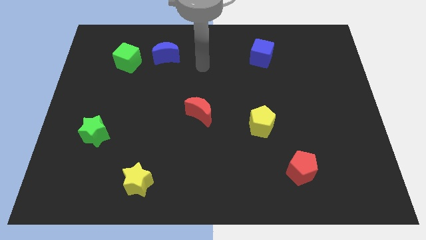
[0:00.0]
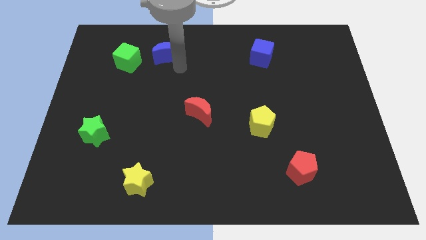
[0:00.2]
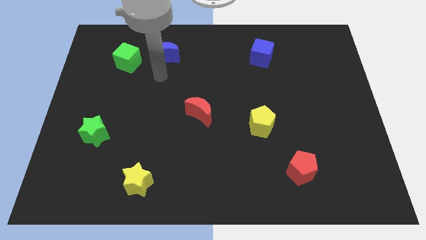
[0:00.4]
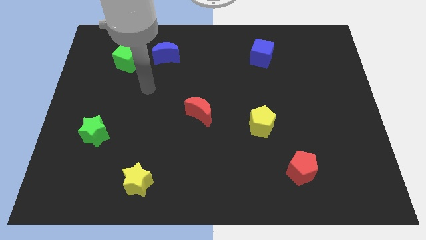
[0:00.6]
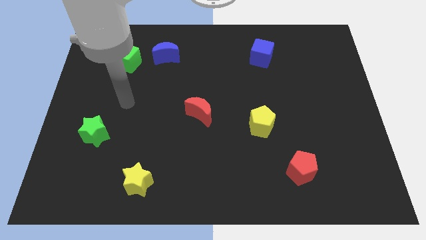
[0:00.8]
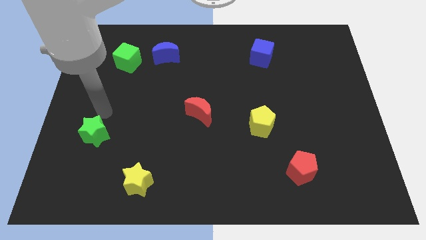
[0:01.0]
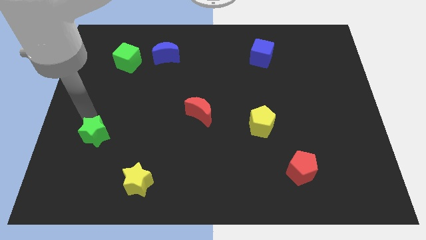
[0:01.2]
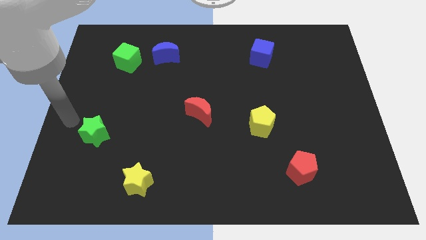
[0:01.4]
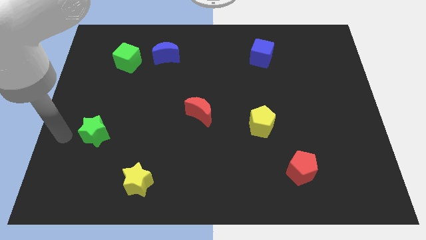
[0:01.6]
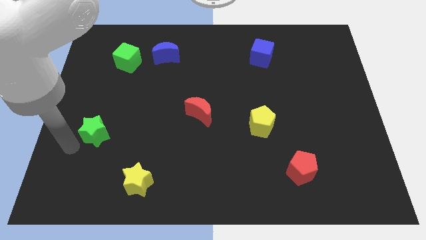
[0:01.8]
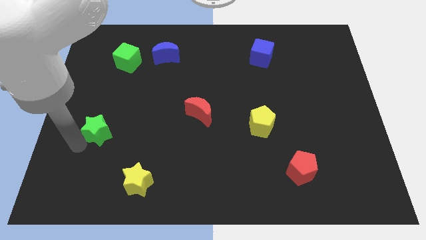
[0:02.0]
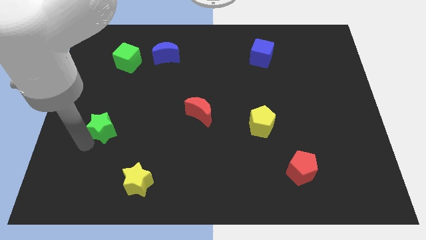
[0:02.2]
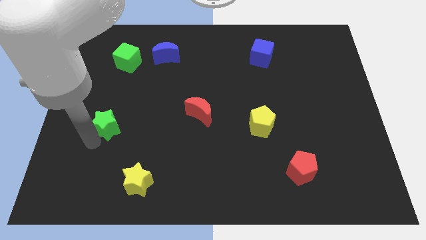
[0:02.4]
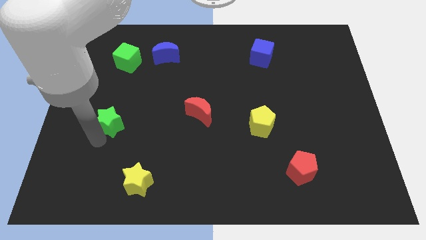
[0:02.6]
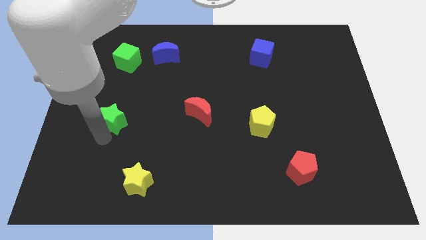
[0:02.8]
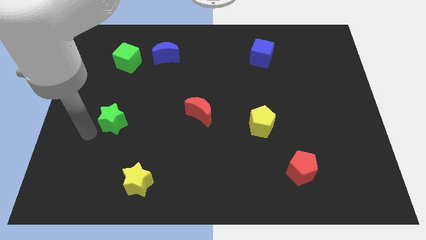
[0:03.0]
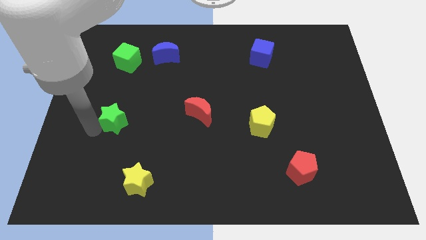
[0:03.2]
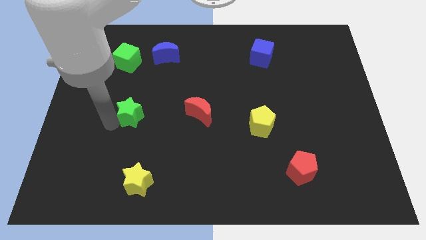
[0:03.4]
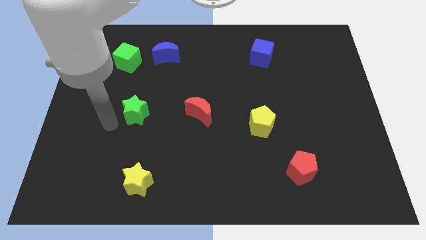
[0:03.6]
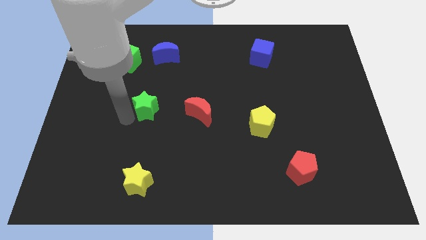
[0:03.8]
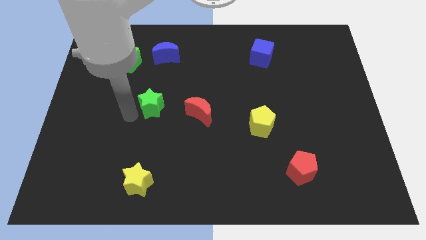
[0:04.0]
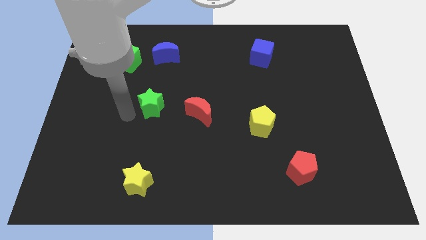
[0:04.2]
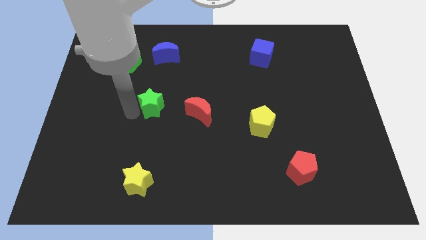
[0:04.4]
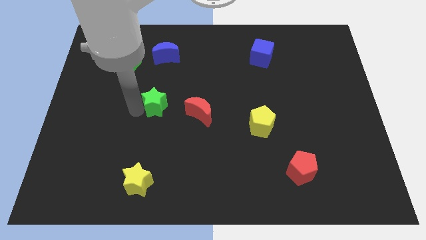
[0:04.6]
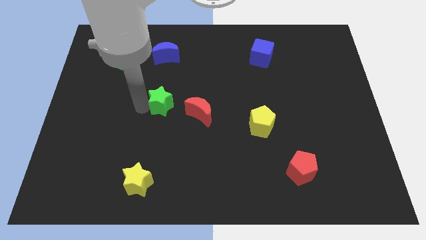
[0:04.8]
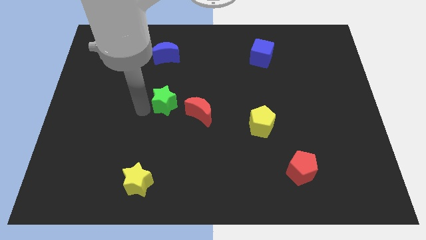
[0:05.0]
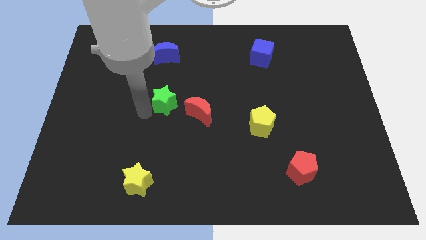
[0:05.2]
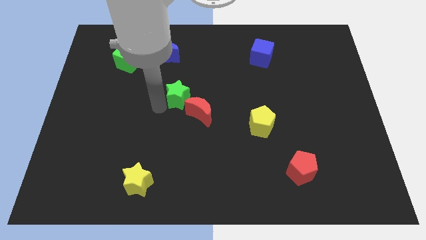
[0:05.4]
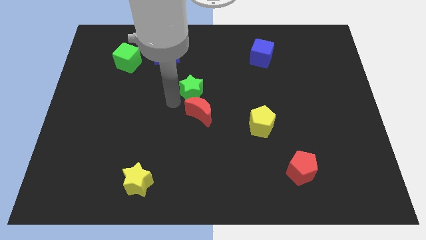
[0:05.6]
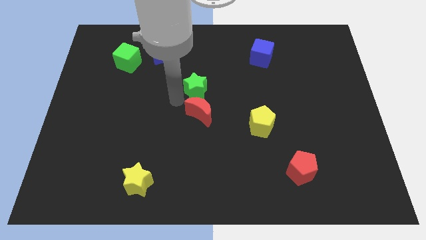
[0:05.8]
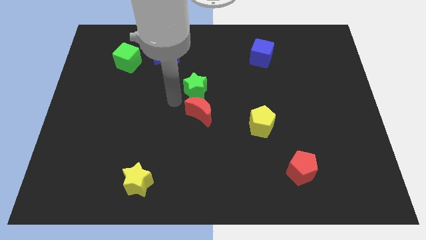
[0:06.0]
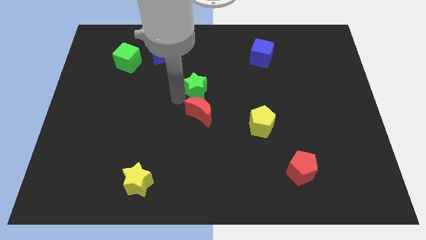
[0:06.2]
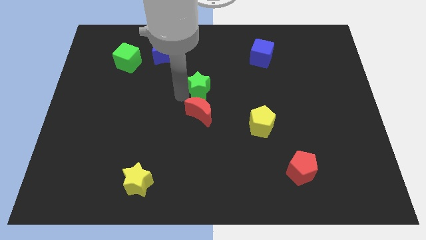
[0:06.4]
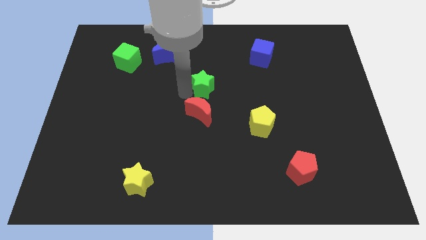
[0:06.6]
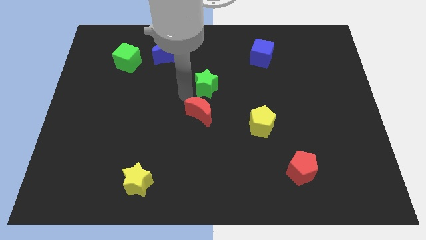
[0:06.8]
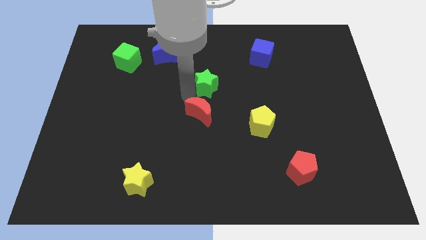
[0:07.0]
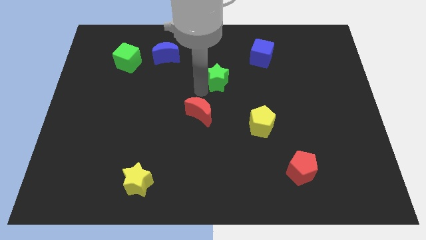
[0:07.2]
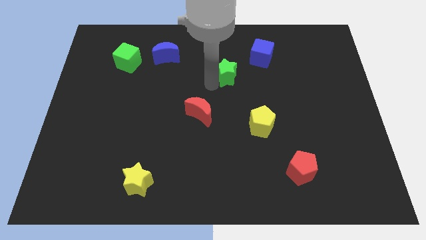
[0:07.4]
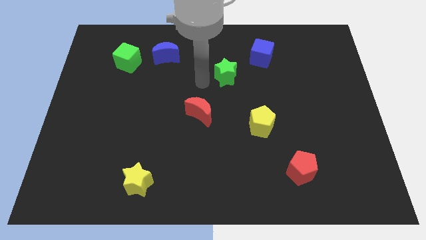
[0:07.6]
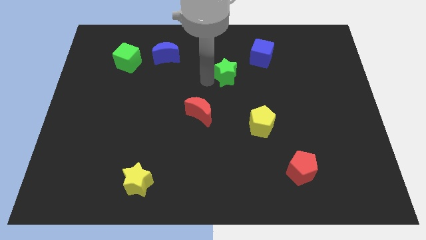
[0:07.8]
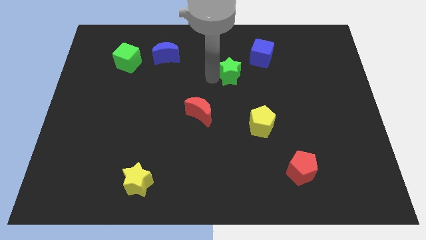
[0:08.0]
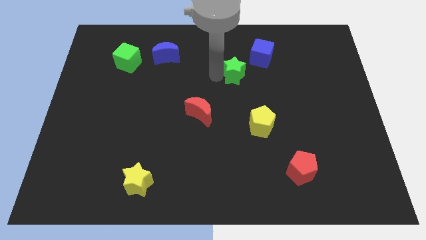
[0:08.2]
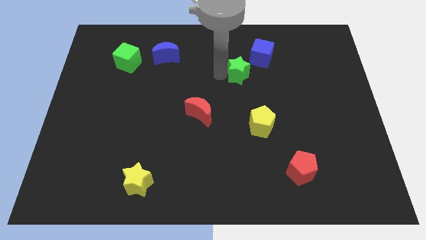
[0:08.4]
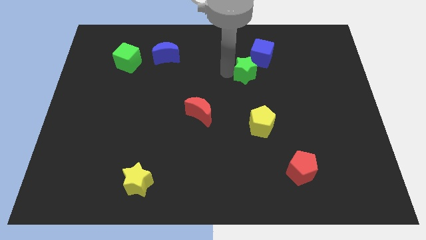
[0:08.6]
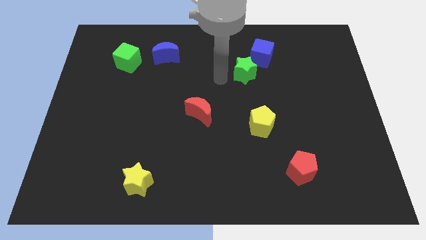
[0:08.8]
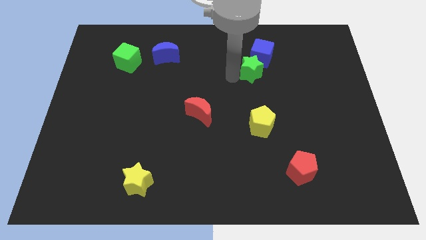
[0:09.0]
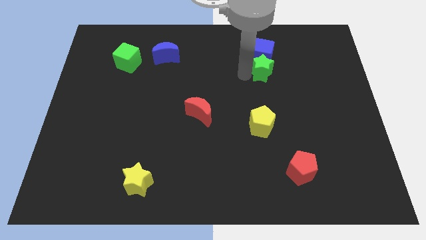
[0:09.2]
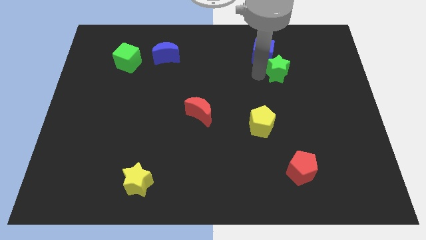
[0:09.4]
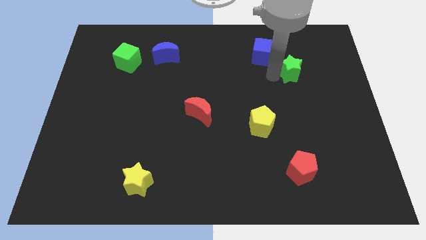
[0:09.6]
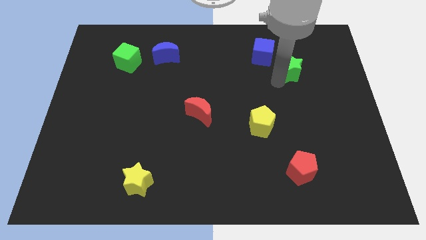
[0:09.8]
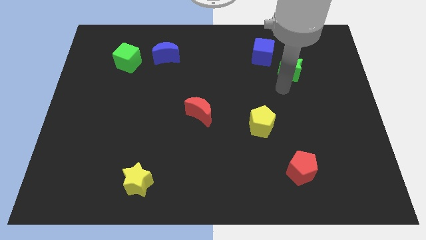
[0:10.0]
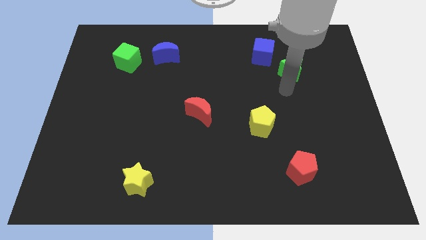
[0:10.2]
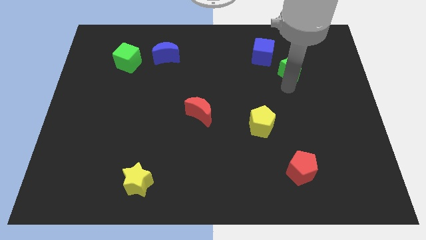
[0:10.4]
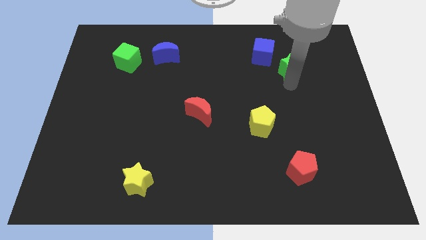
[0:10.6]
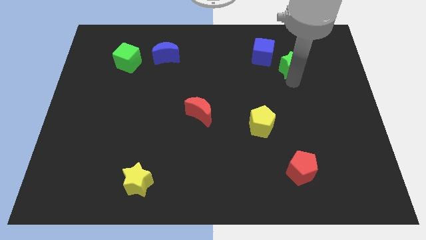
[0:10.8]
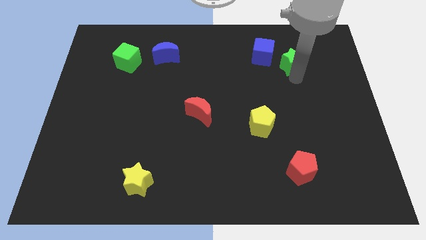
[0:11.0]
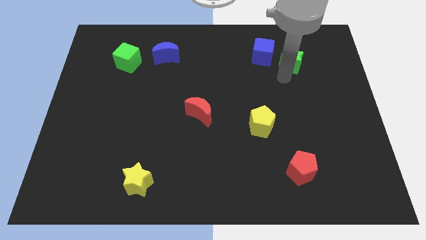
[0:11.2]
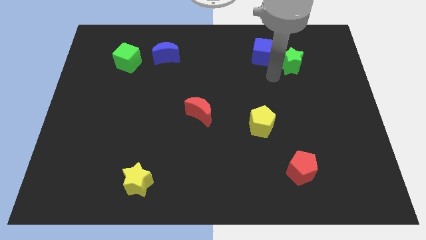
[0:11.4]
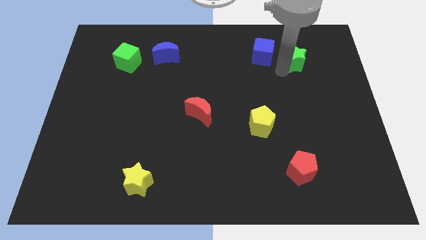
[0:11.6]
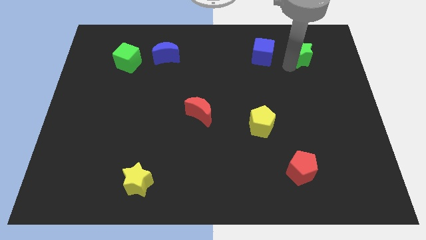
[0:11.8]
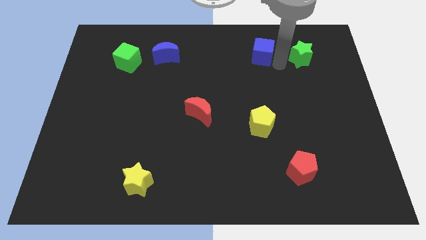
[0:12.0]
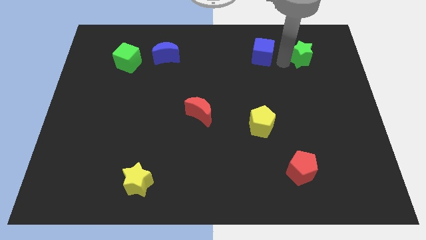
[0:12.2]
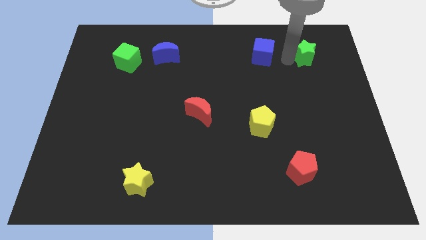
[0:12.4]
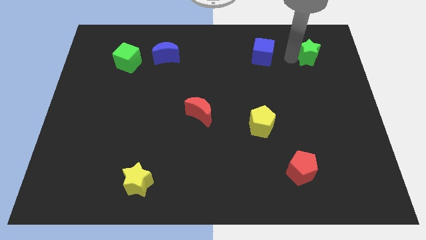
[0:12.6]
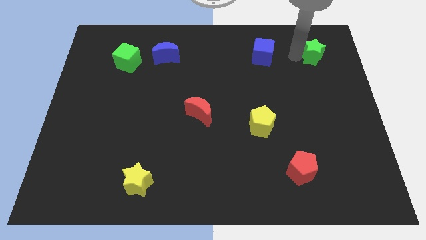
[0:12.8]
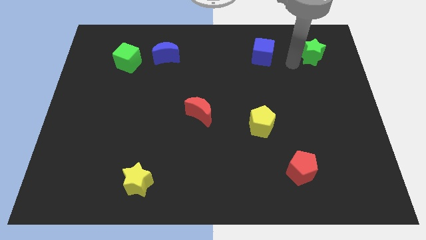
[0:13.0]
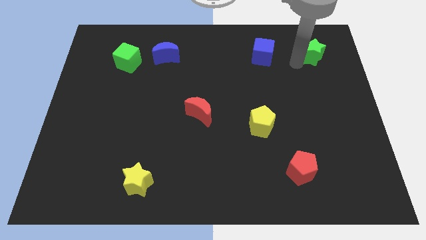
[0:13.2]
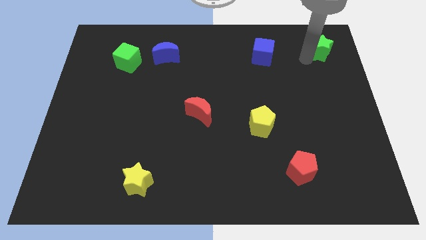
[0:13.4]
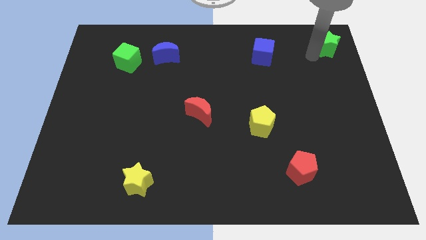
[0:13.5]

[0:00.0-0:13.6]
push the green star to the top right
